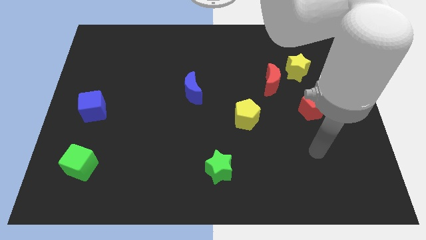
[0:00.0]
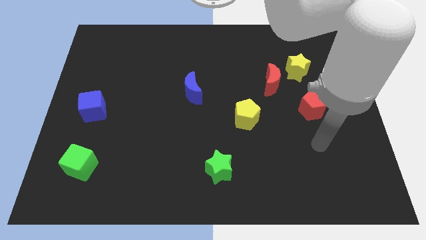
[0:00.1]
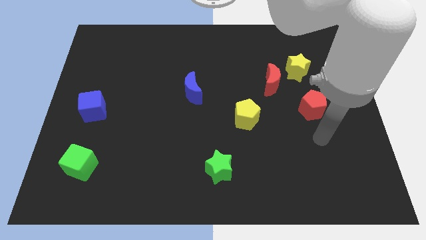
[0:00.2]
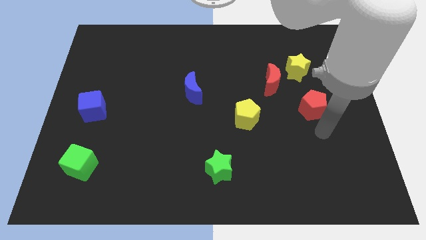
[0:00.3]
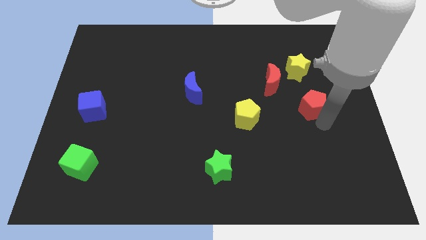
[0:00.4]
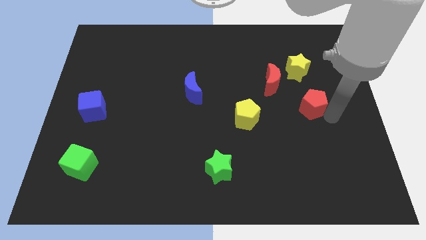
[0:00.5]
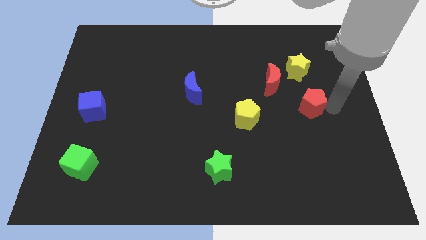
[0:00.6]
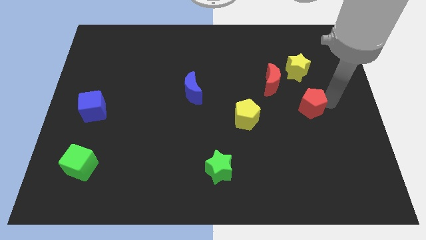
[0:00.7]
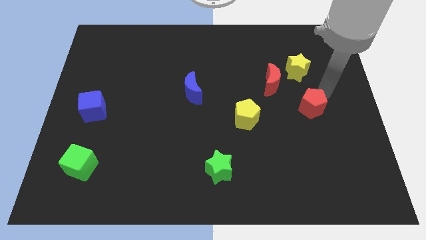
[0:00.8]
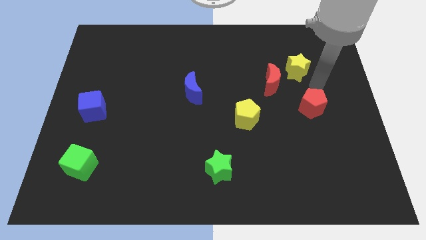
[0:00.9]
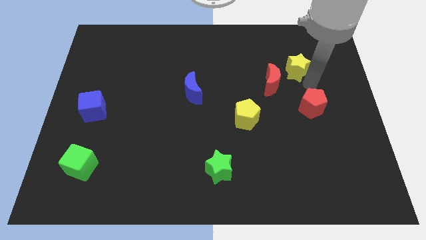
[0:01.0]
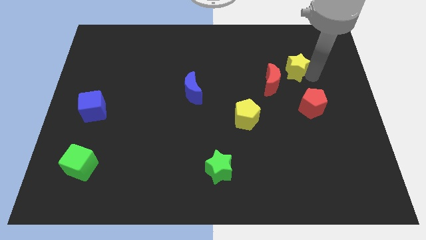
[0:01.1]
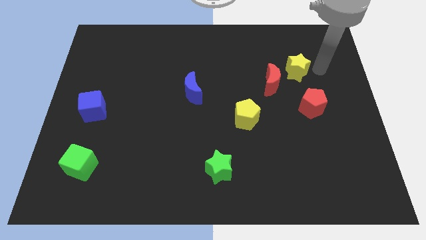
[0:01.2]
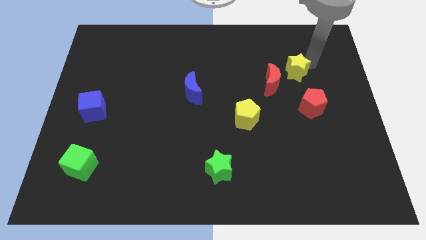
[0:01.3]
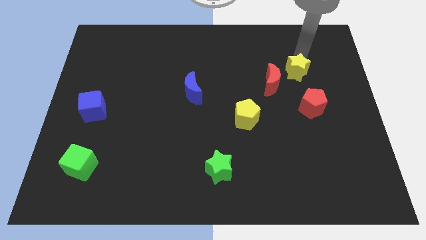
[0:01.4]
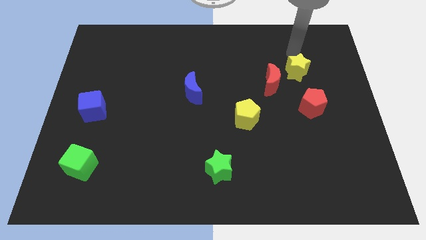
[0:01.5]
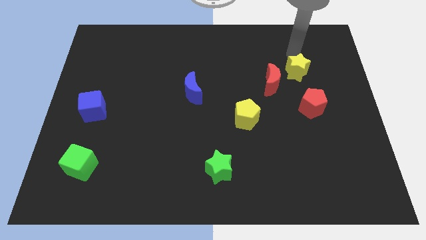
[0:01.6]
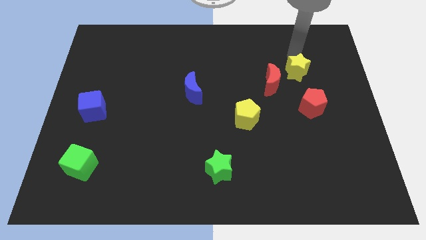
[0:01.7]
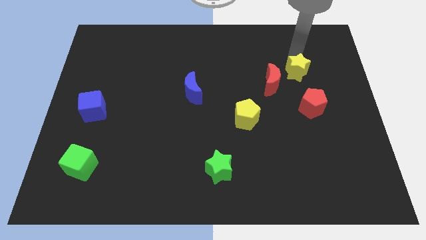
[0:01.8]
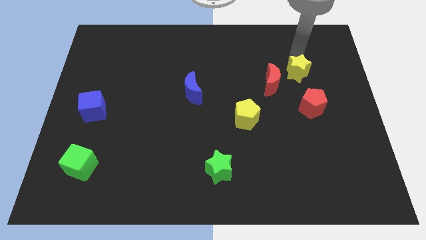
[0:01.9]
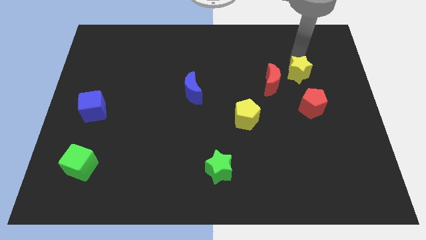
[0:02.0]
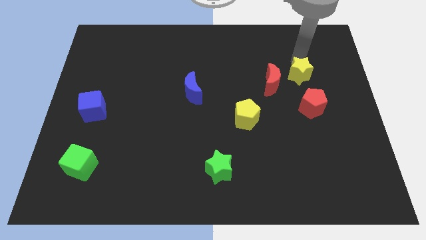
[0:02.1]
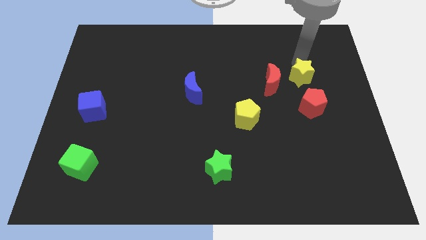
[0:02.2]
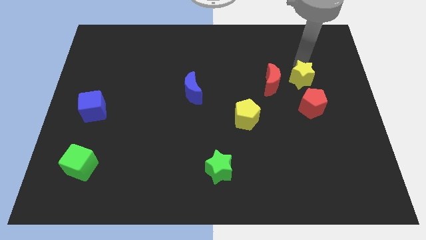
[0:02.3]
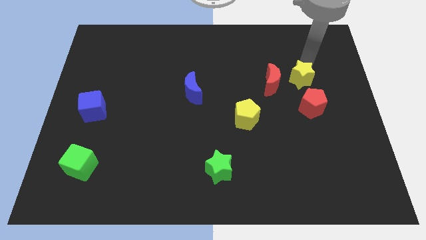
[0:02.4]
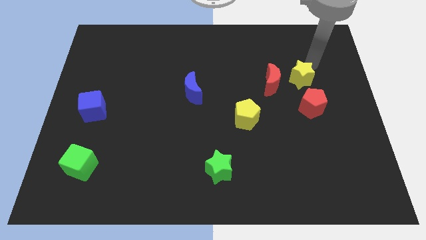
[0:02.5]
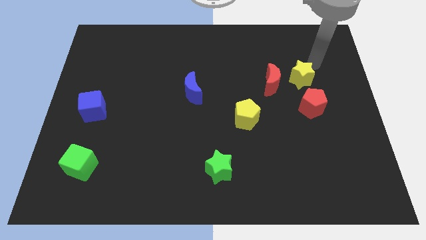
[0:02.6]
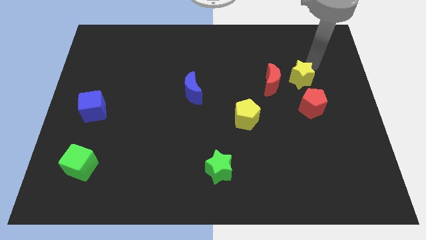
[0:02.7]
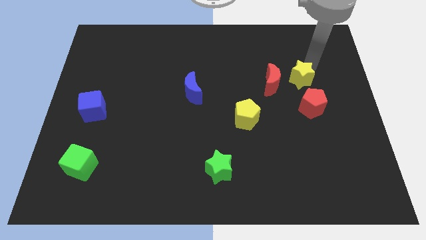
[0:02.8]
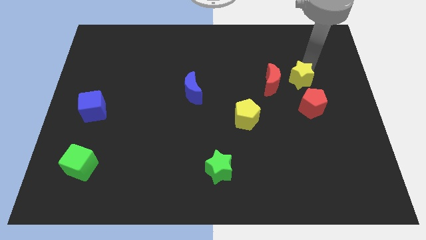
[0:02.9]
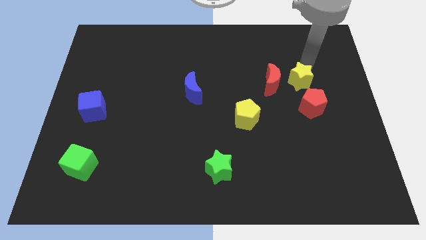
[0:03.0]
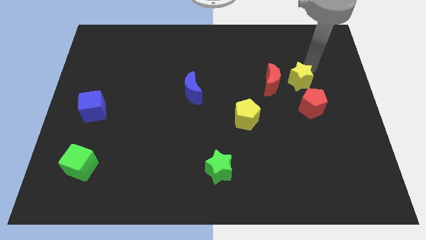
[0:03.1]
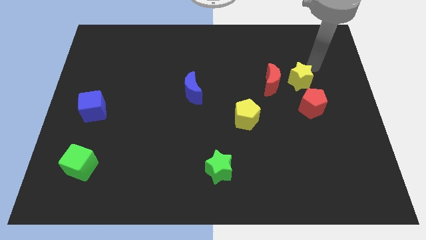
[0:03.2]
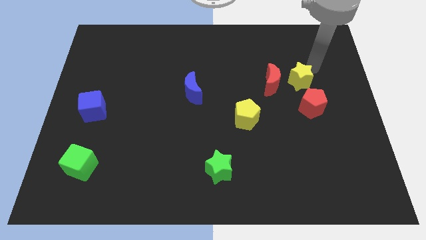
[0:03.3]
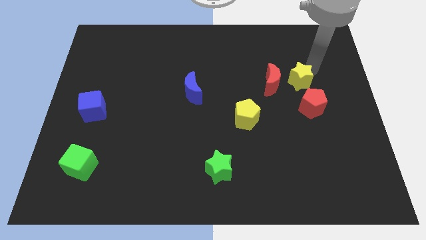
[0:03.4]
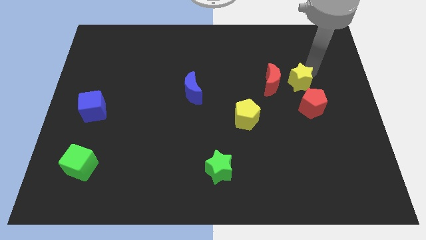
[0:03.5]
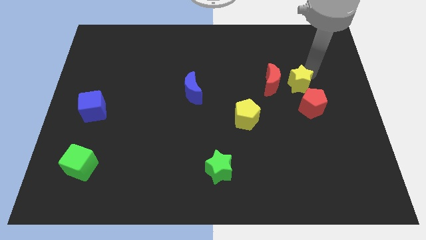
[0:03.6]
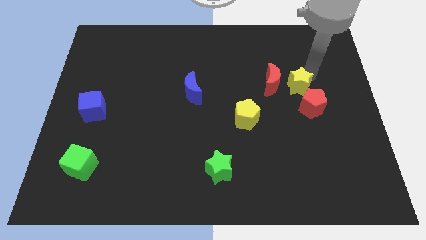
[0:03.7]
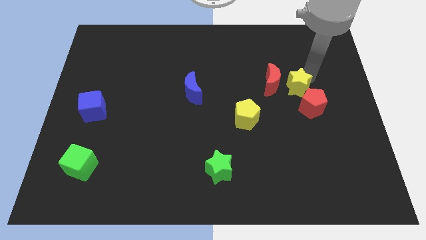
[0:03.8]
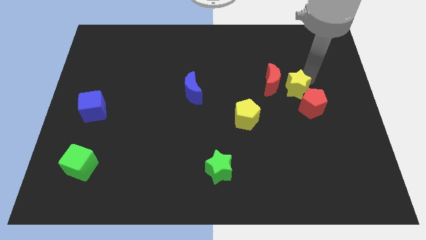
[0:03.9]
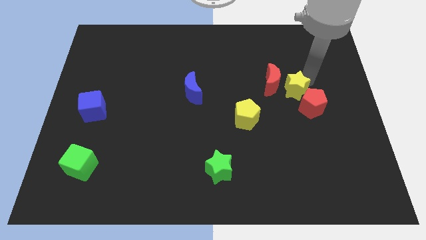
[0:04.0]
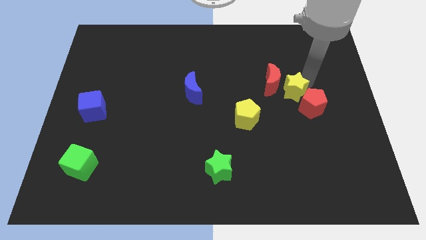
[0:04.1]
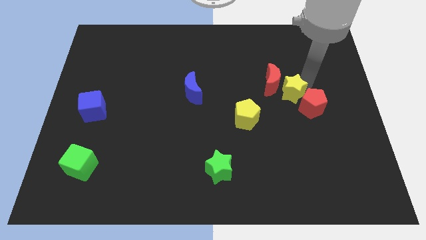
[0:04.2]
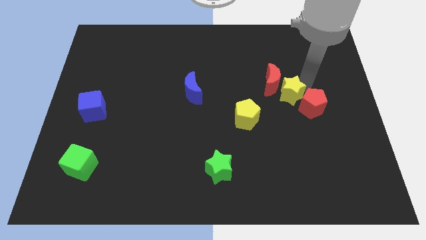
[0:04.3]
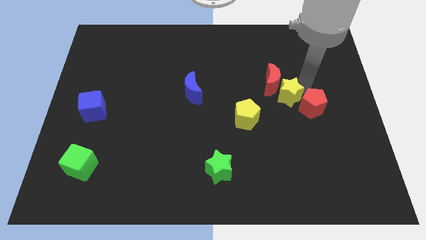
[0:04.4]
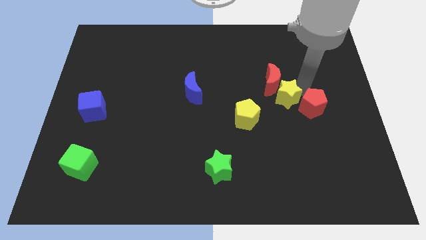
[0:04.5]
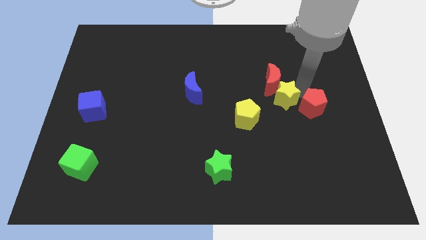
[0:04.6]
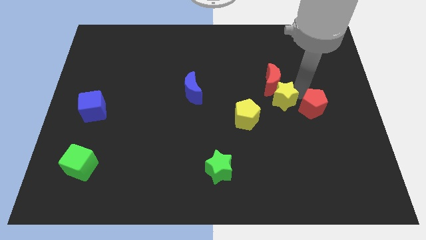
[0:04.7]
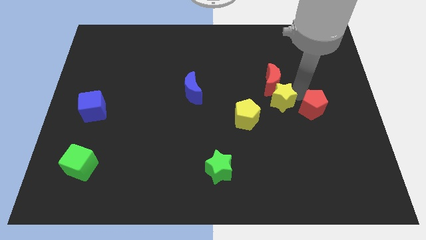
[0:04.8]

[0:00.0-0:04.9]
move the yellow star diagonally down and to the left of the red moon

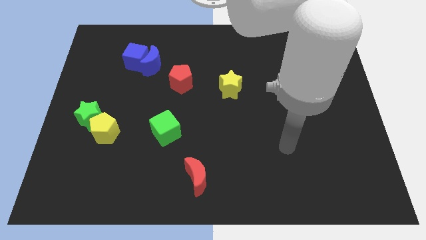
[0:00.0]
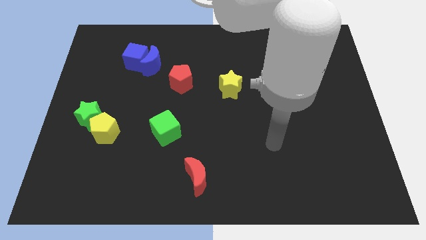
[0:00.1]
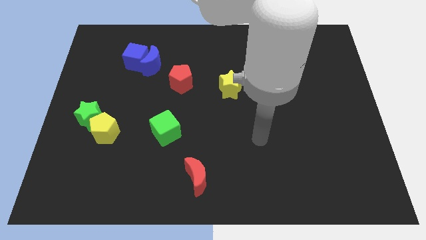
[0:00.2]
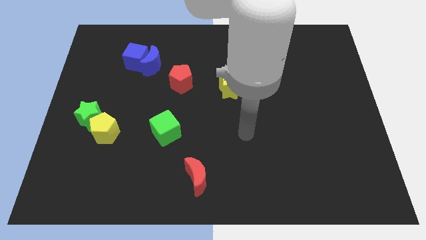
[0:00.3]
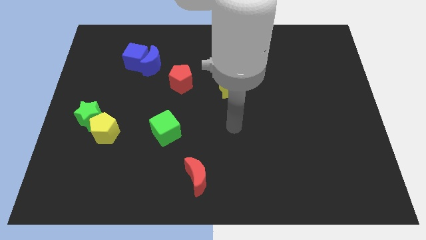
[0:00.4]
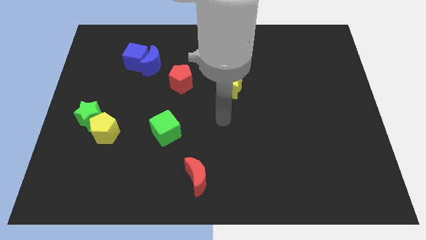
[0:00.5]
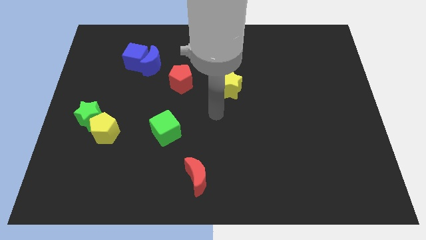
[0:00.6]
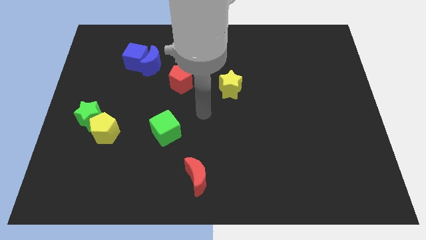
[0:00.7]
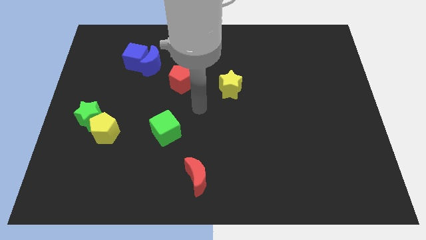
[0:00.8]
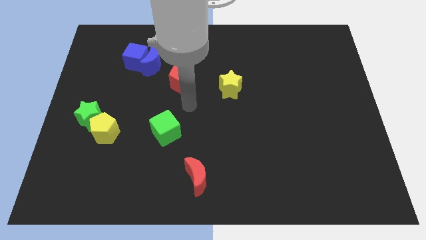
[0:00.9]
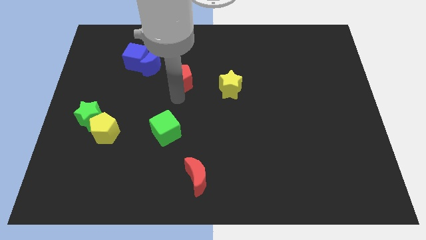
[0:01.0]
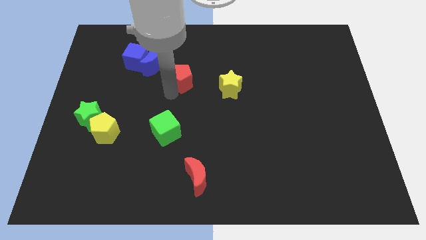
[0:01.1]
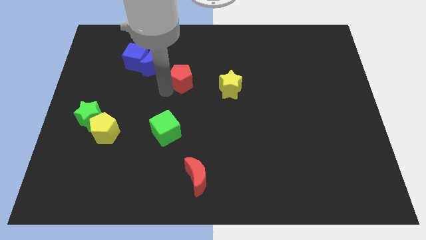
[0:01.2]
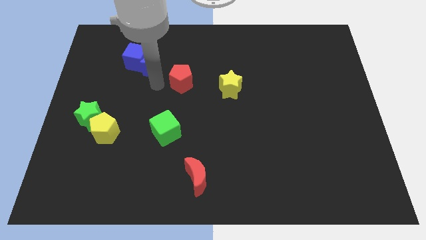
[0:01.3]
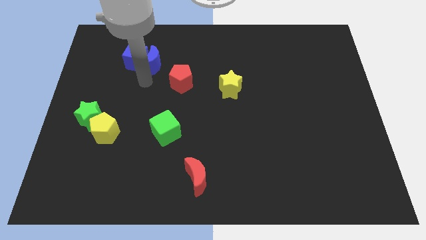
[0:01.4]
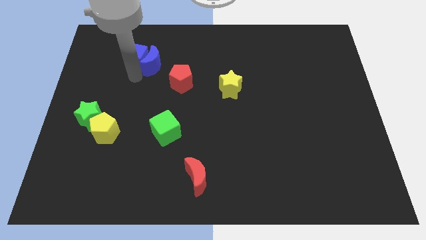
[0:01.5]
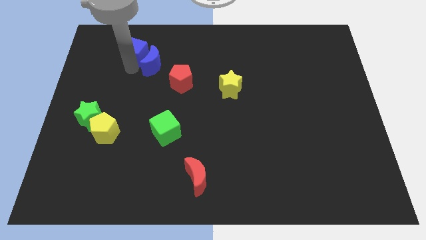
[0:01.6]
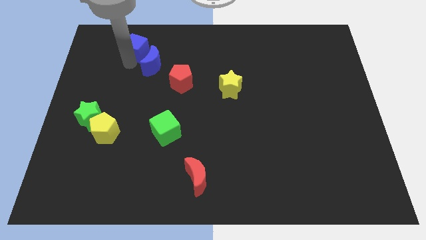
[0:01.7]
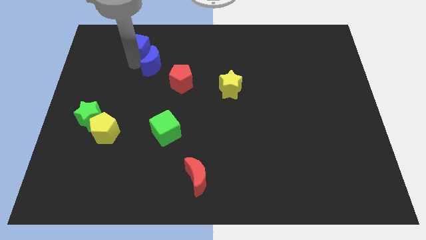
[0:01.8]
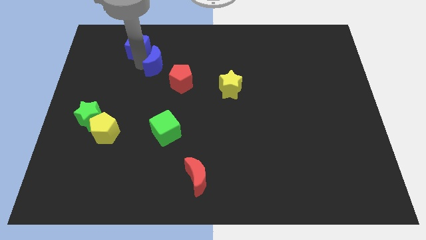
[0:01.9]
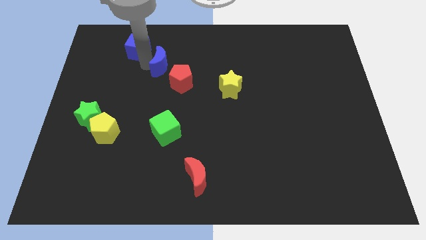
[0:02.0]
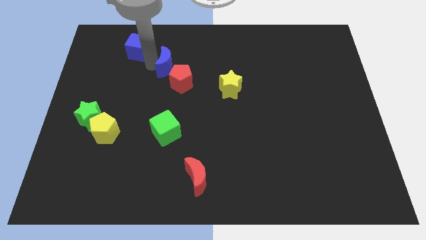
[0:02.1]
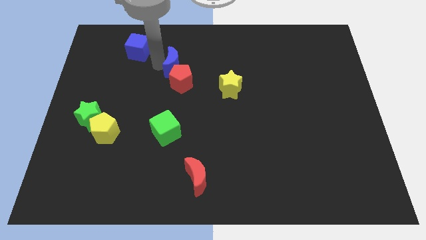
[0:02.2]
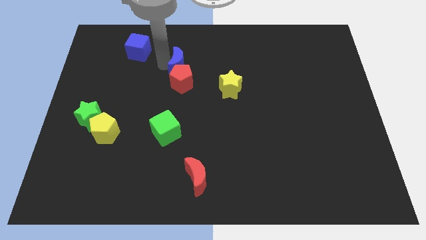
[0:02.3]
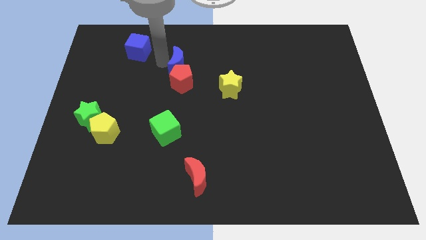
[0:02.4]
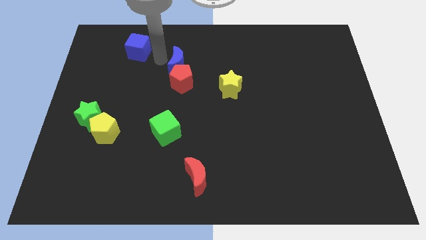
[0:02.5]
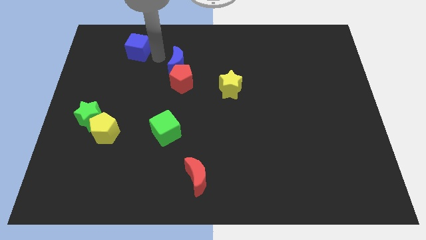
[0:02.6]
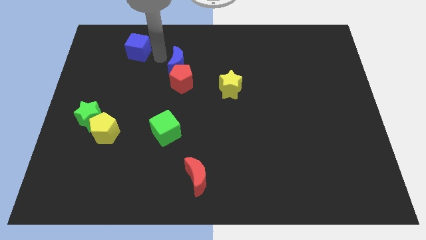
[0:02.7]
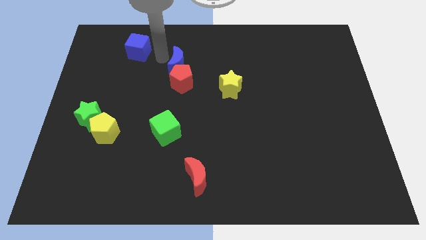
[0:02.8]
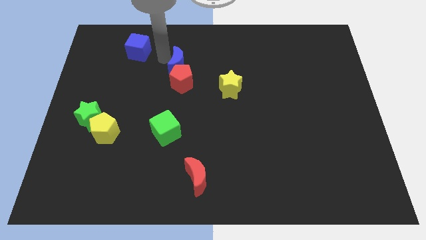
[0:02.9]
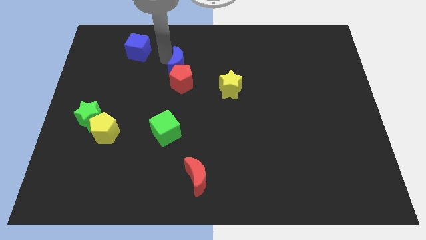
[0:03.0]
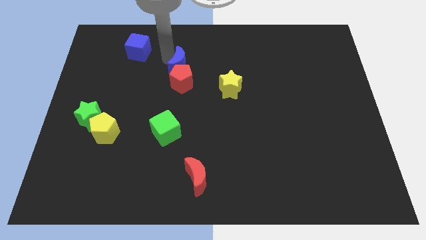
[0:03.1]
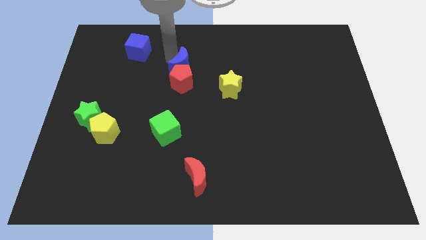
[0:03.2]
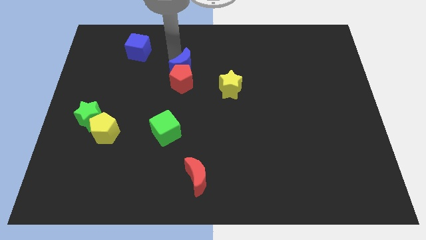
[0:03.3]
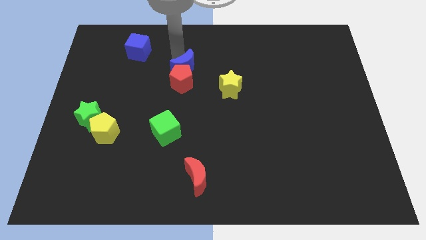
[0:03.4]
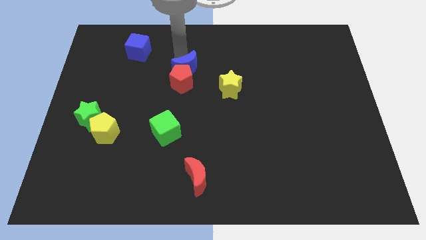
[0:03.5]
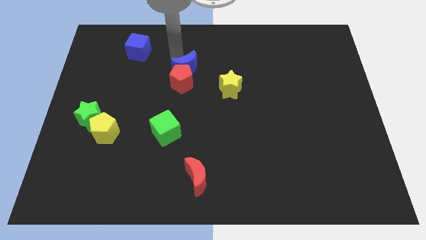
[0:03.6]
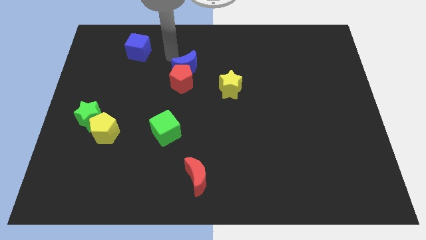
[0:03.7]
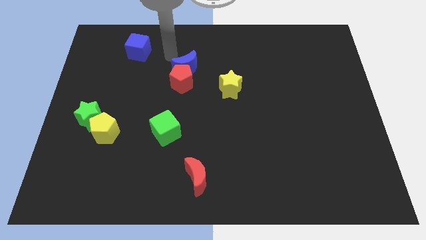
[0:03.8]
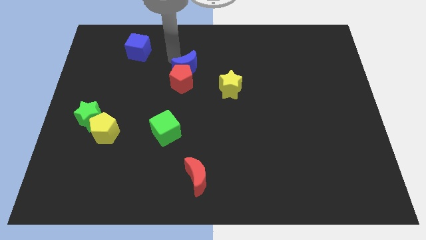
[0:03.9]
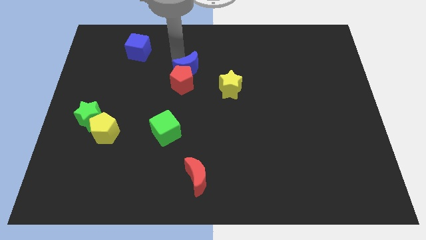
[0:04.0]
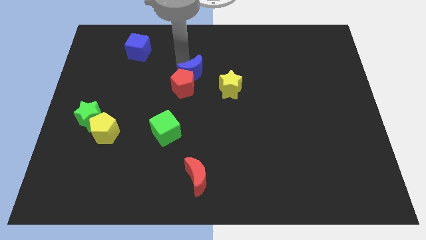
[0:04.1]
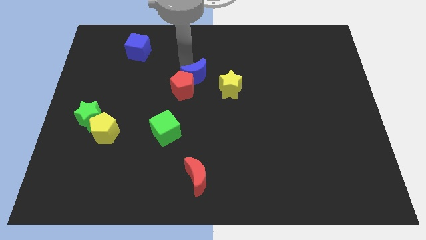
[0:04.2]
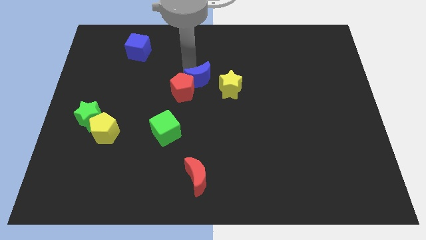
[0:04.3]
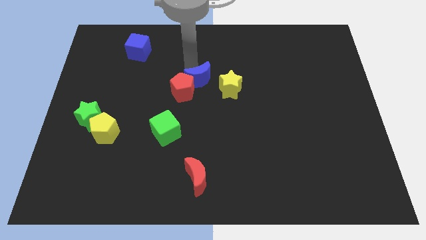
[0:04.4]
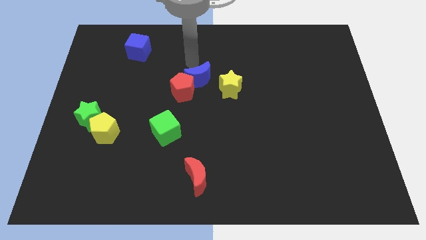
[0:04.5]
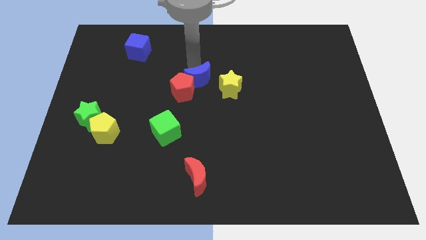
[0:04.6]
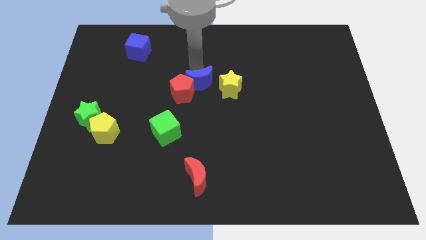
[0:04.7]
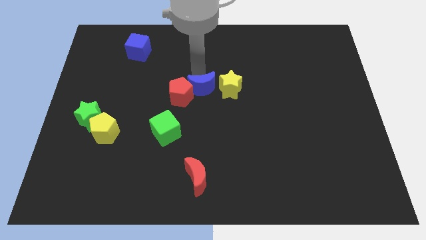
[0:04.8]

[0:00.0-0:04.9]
put the blue moon diagonally down and to the left of the yellow star
